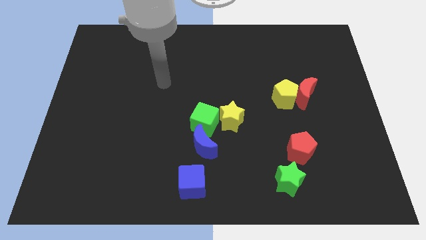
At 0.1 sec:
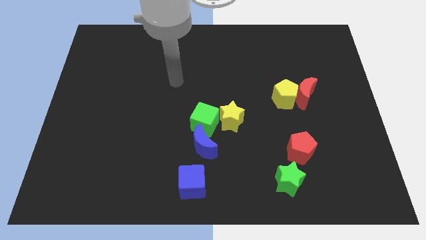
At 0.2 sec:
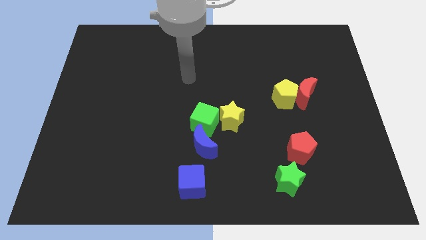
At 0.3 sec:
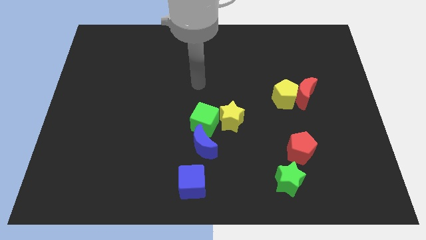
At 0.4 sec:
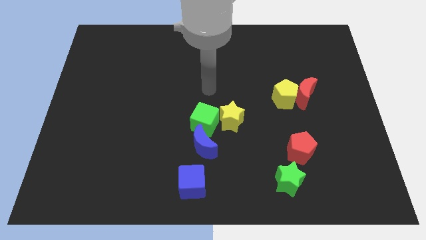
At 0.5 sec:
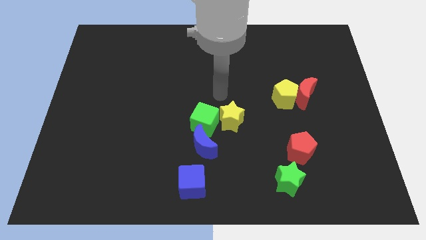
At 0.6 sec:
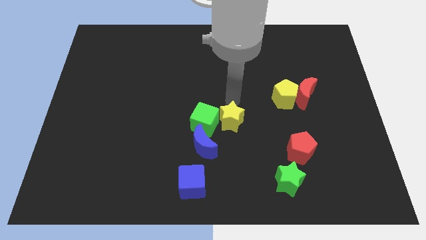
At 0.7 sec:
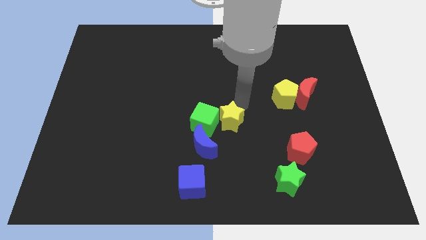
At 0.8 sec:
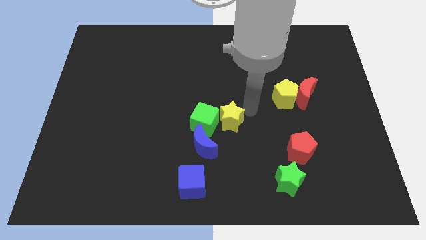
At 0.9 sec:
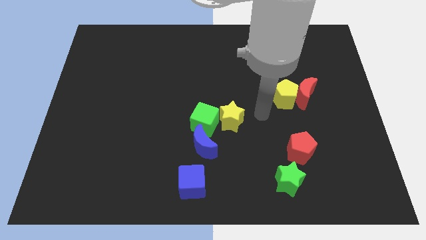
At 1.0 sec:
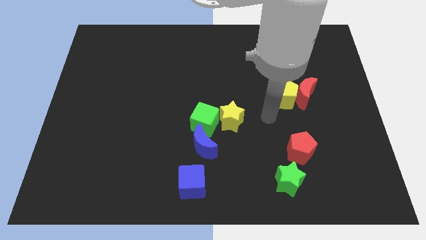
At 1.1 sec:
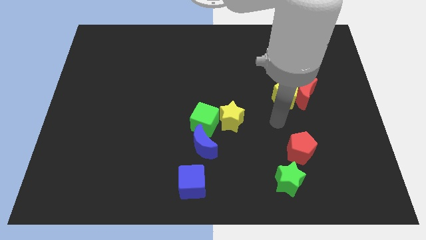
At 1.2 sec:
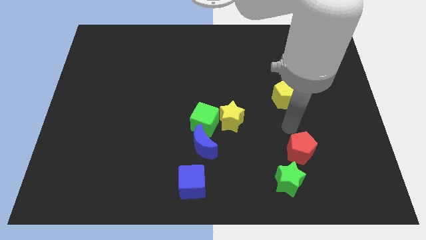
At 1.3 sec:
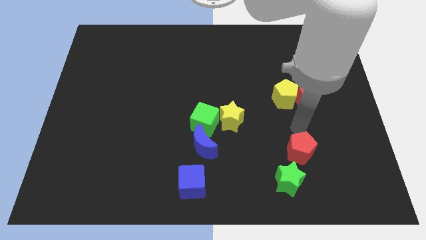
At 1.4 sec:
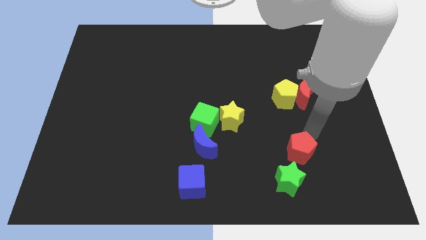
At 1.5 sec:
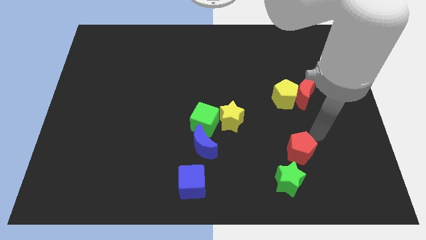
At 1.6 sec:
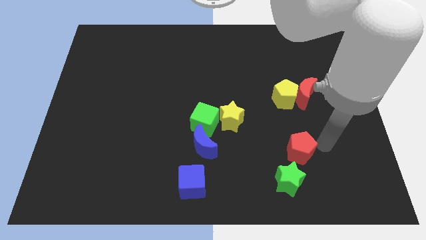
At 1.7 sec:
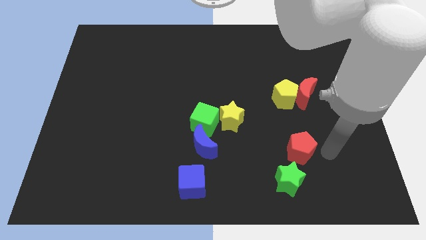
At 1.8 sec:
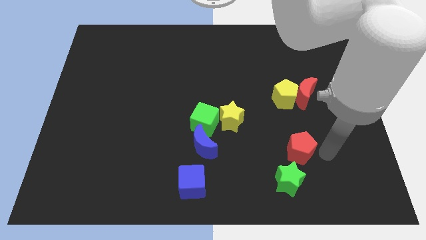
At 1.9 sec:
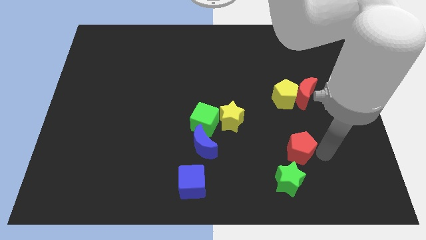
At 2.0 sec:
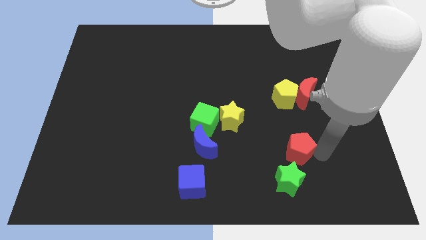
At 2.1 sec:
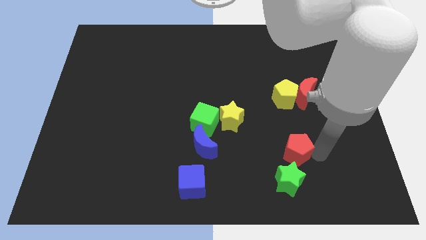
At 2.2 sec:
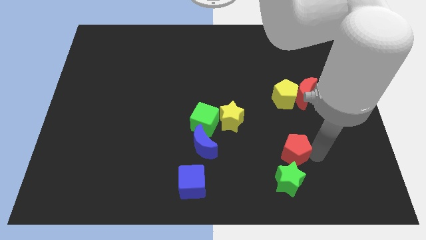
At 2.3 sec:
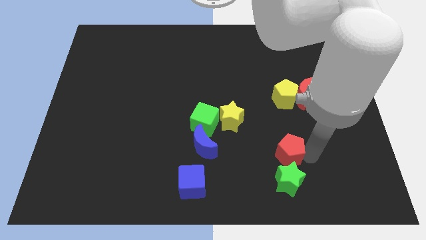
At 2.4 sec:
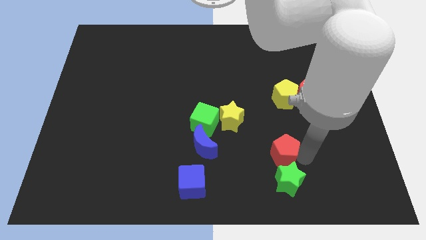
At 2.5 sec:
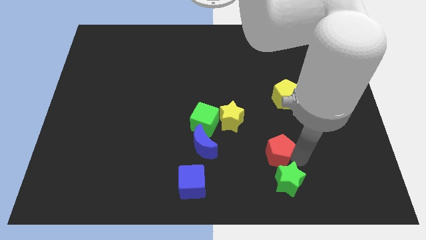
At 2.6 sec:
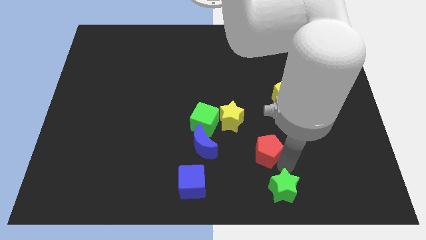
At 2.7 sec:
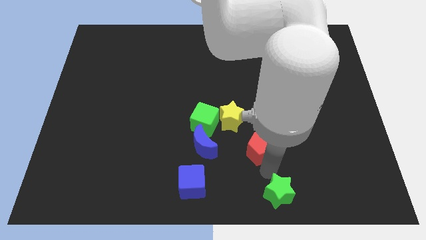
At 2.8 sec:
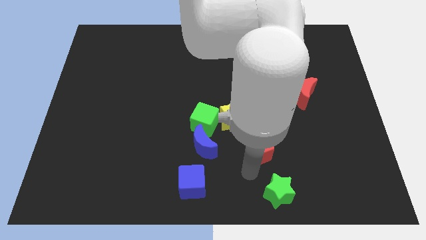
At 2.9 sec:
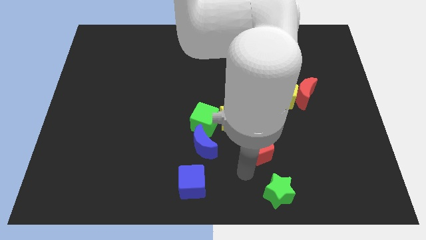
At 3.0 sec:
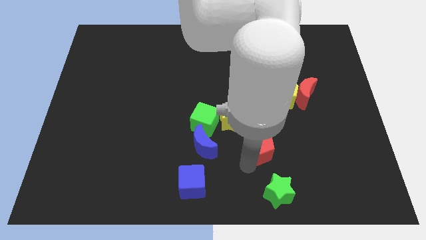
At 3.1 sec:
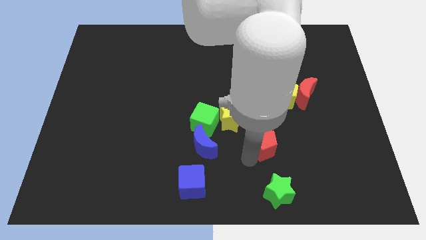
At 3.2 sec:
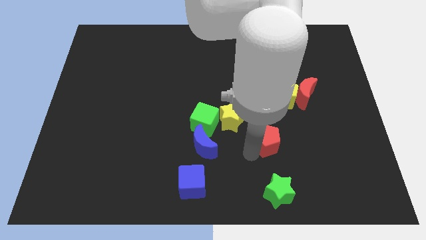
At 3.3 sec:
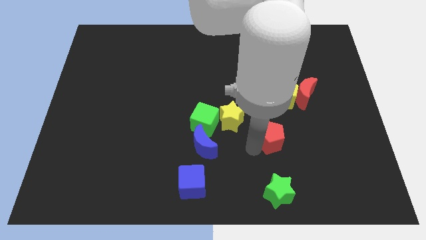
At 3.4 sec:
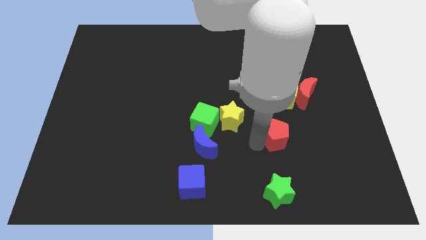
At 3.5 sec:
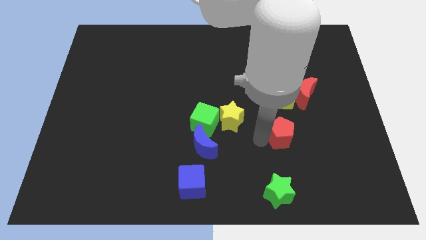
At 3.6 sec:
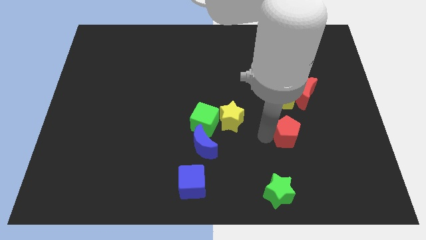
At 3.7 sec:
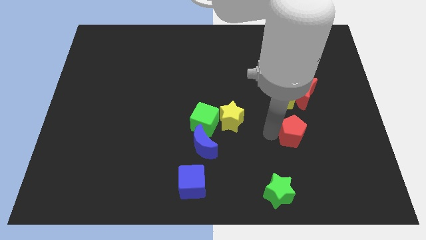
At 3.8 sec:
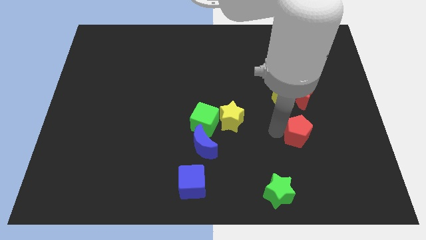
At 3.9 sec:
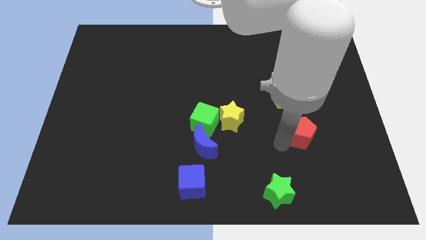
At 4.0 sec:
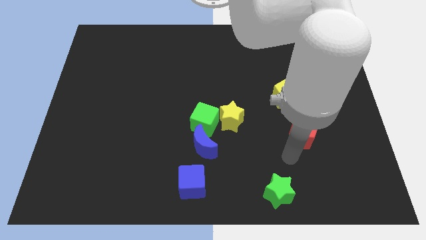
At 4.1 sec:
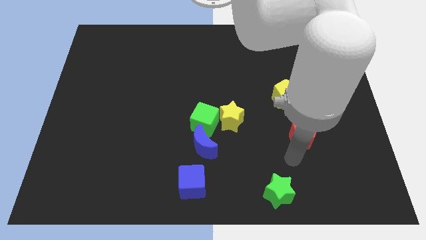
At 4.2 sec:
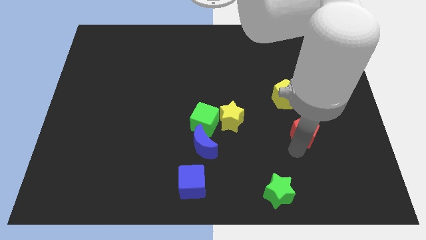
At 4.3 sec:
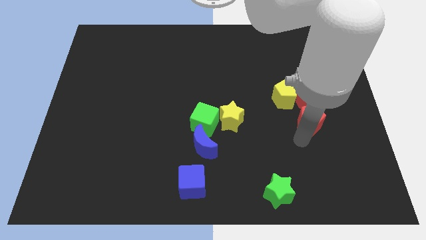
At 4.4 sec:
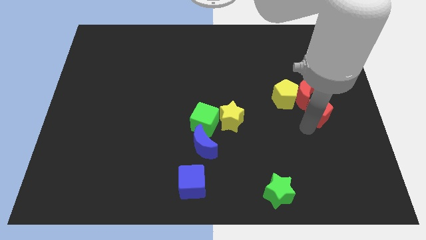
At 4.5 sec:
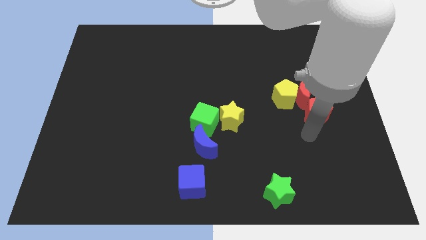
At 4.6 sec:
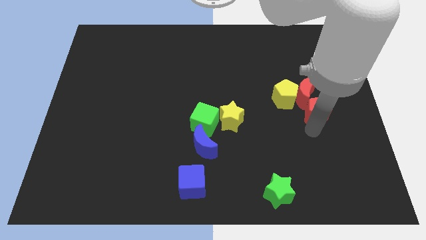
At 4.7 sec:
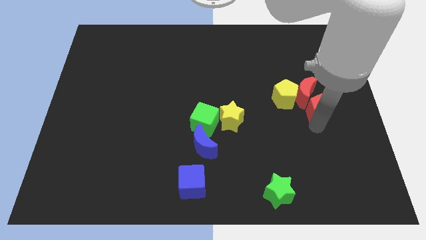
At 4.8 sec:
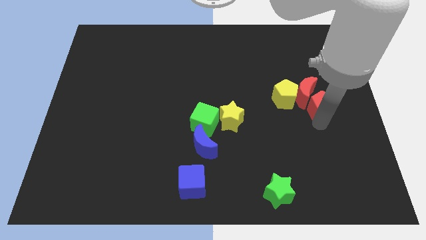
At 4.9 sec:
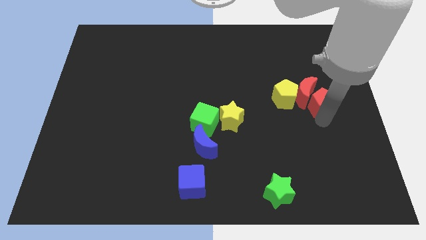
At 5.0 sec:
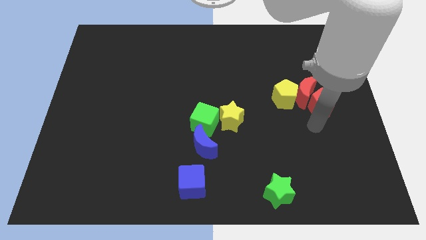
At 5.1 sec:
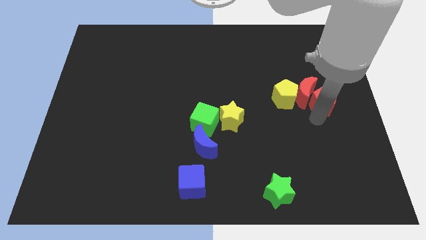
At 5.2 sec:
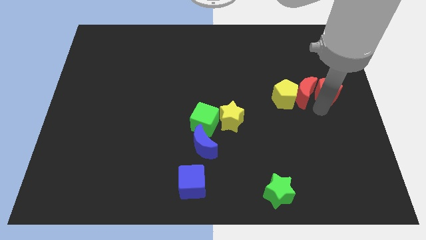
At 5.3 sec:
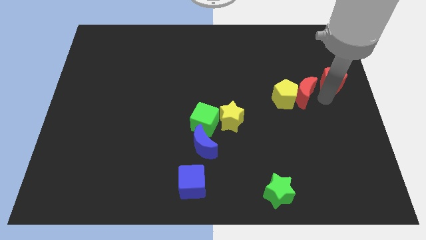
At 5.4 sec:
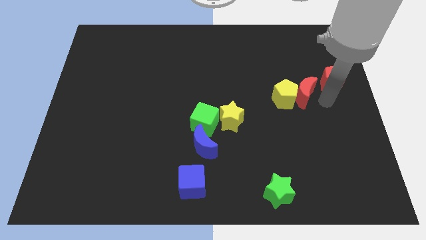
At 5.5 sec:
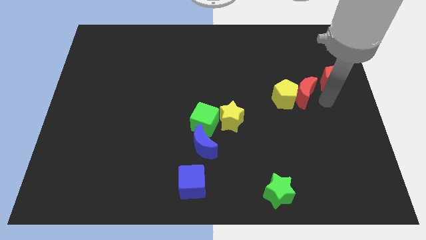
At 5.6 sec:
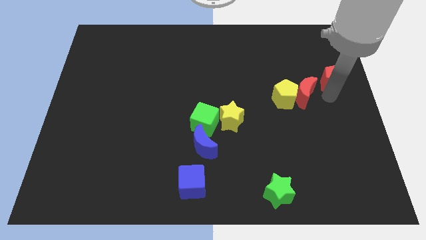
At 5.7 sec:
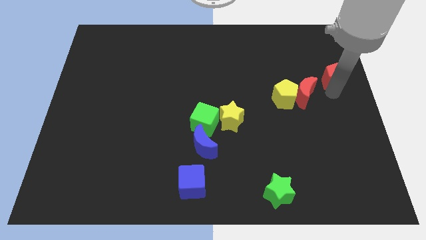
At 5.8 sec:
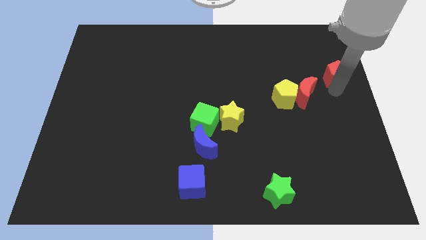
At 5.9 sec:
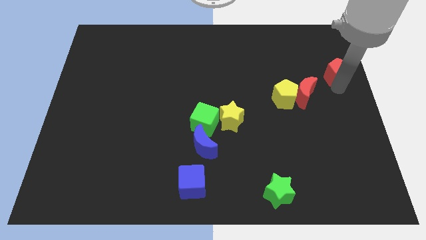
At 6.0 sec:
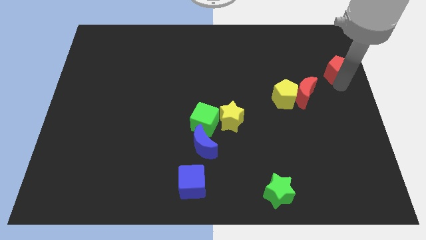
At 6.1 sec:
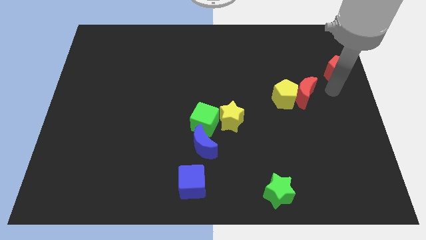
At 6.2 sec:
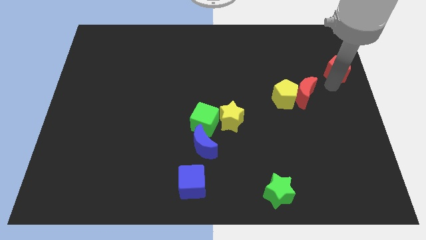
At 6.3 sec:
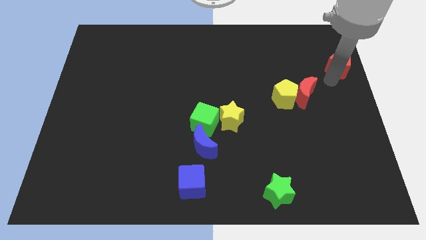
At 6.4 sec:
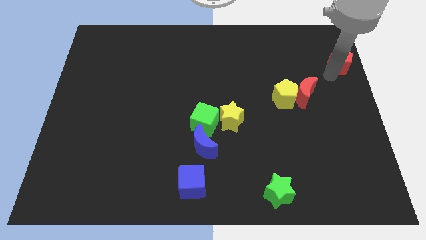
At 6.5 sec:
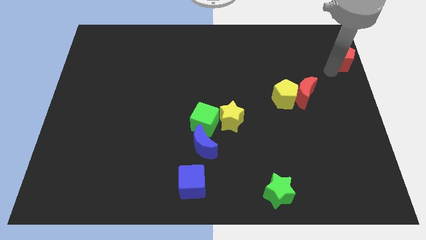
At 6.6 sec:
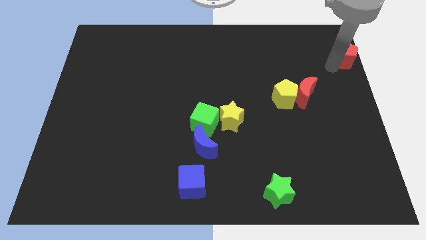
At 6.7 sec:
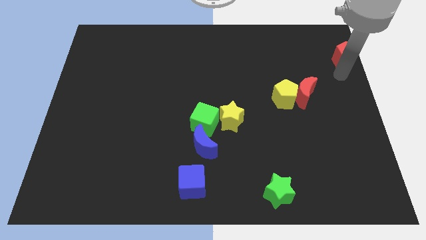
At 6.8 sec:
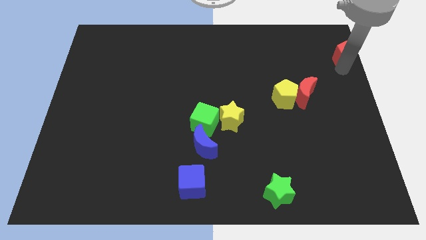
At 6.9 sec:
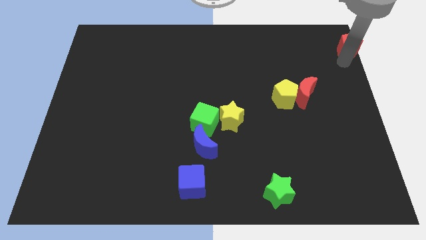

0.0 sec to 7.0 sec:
put the red pentagon to the top right of the board
